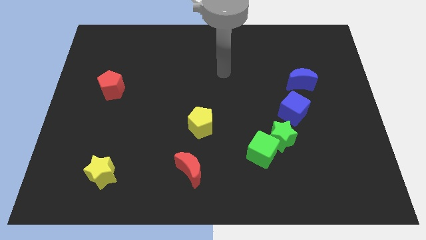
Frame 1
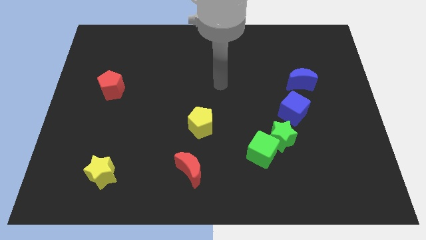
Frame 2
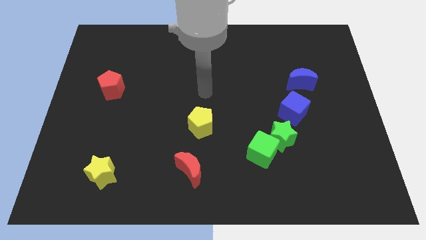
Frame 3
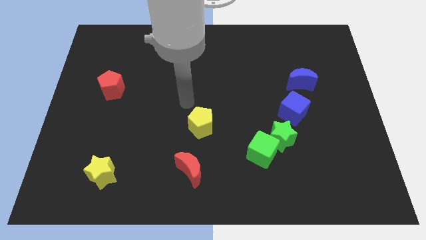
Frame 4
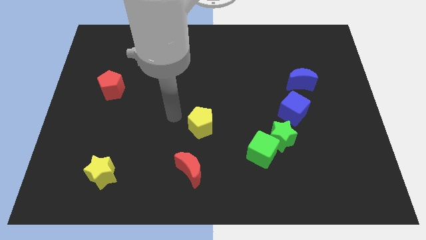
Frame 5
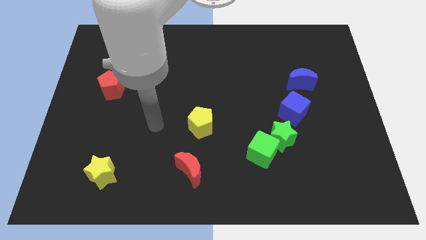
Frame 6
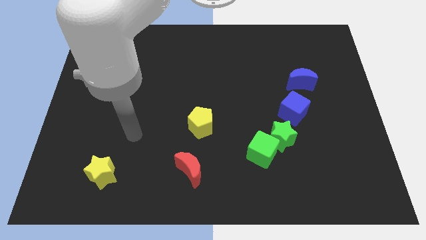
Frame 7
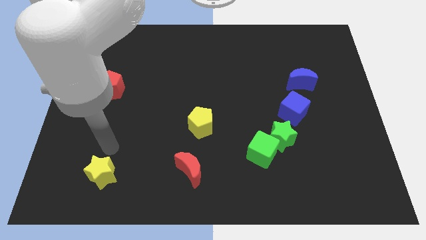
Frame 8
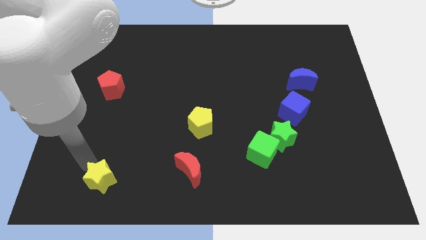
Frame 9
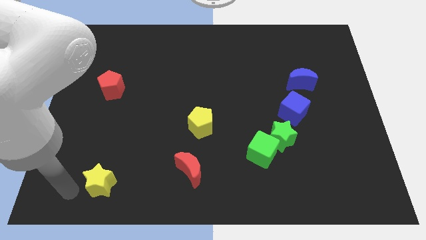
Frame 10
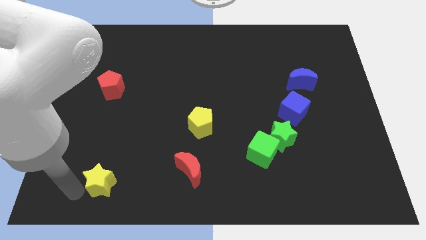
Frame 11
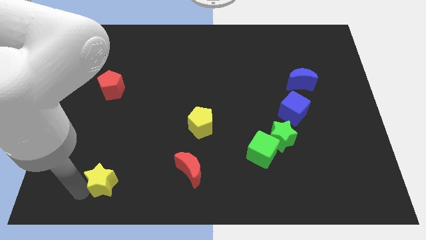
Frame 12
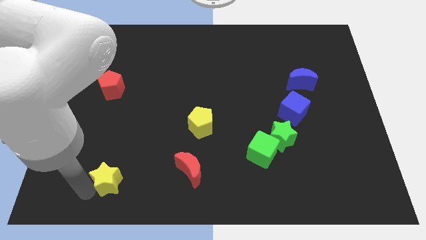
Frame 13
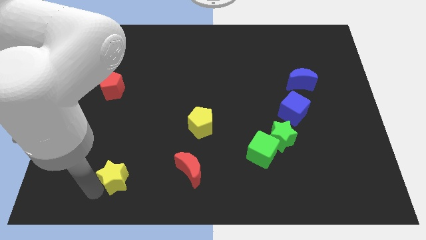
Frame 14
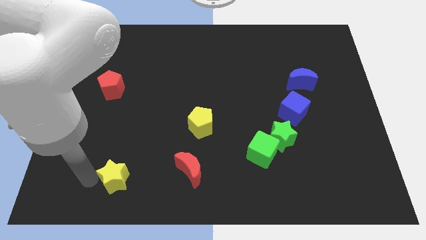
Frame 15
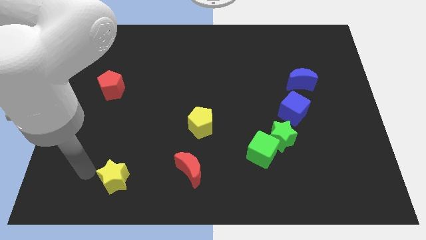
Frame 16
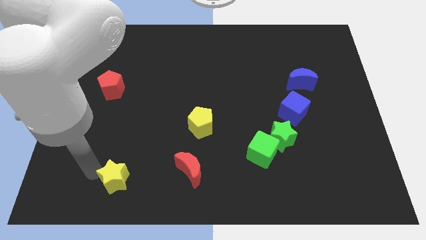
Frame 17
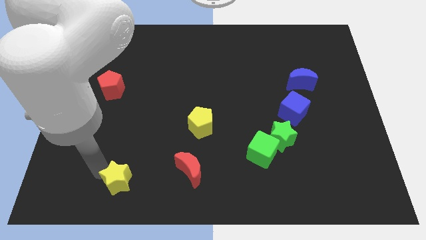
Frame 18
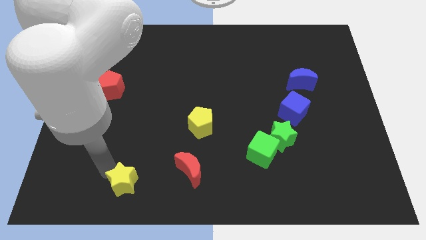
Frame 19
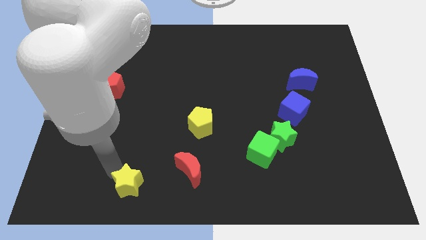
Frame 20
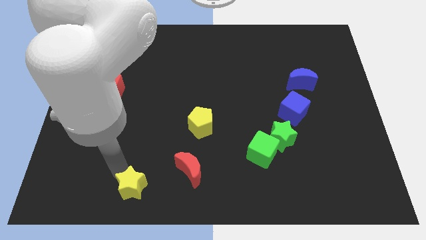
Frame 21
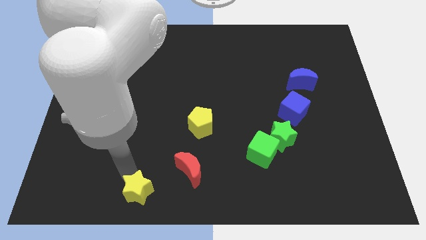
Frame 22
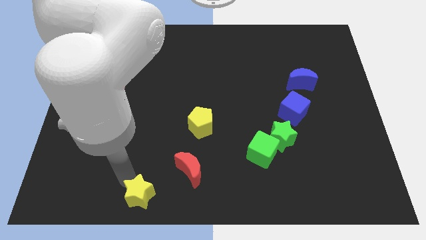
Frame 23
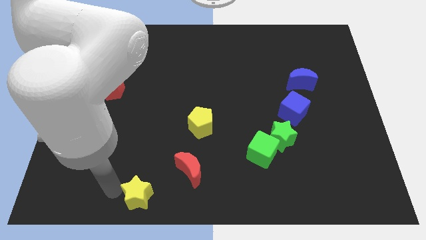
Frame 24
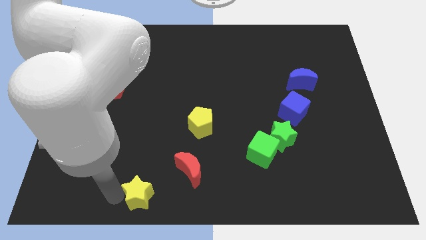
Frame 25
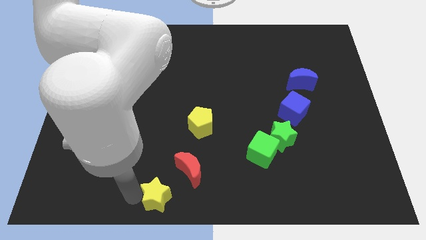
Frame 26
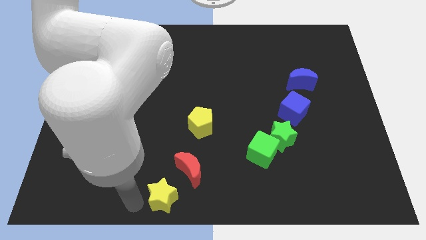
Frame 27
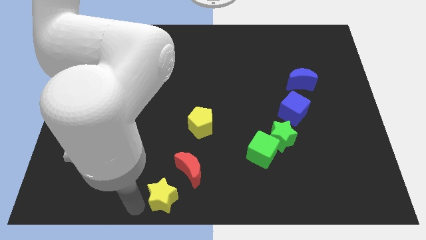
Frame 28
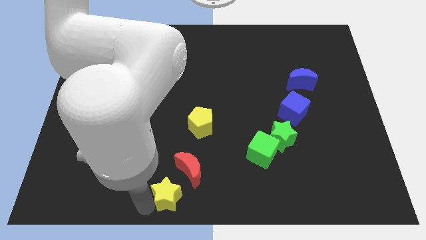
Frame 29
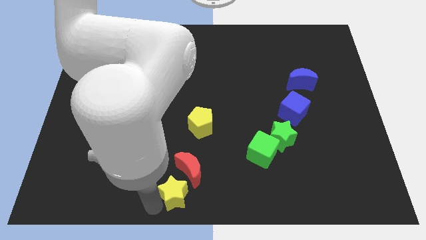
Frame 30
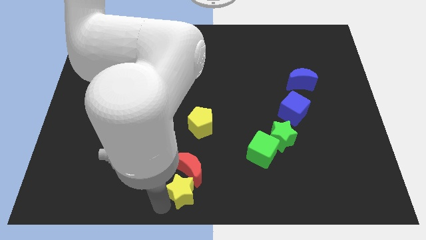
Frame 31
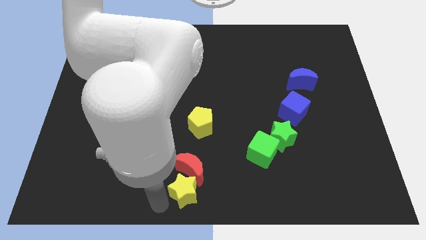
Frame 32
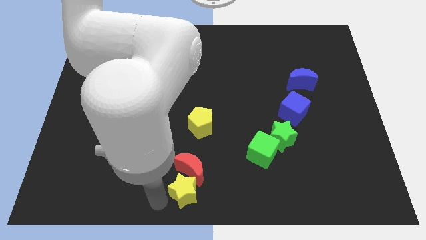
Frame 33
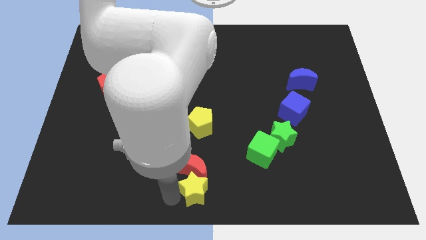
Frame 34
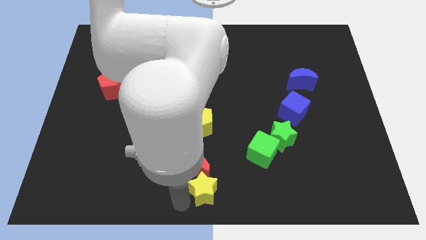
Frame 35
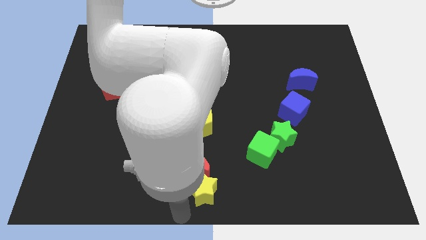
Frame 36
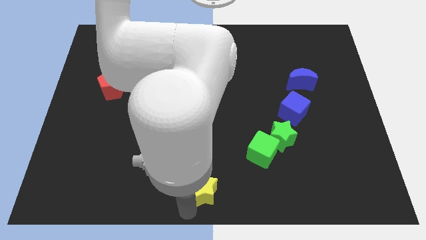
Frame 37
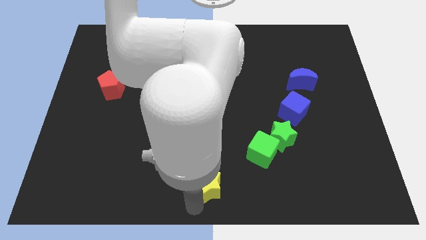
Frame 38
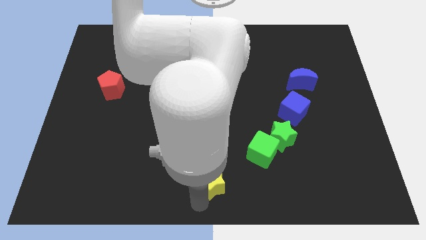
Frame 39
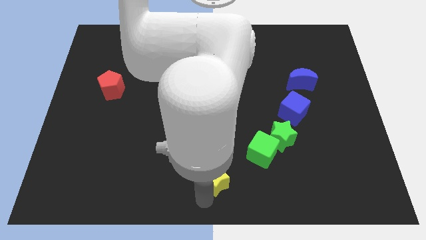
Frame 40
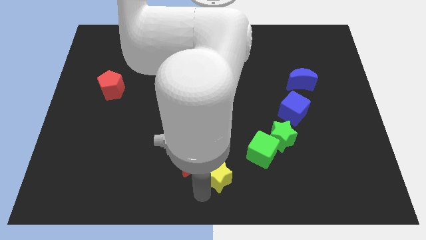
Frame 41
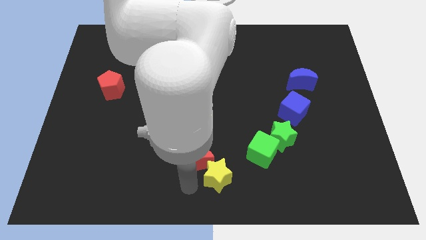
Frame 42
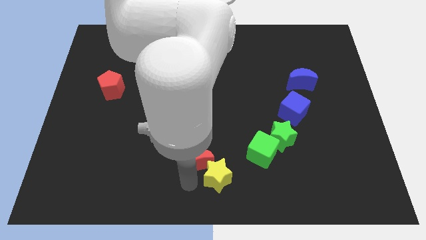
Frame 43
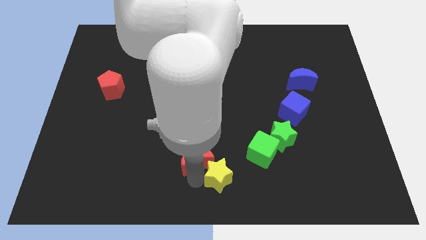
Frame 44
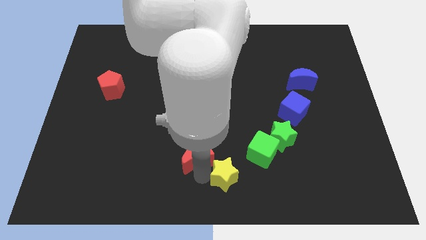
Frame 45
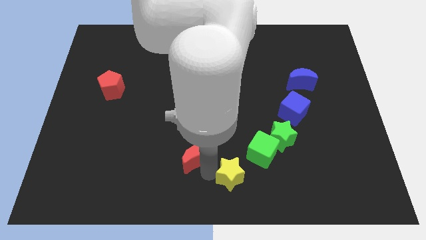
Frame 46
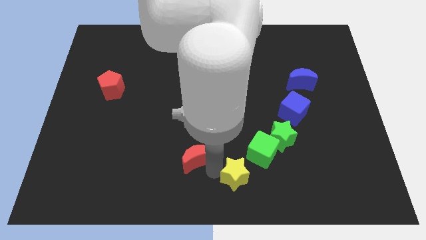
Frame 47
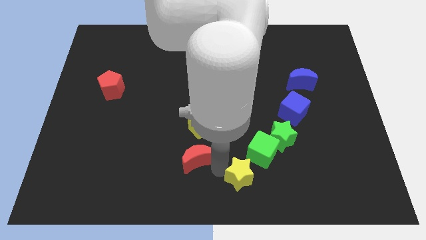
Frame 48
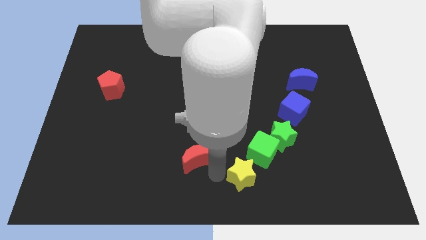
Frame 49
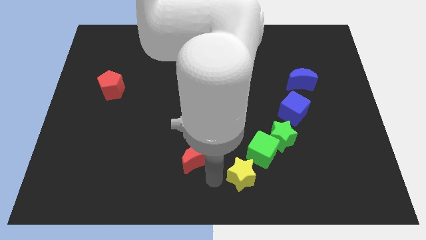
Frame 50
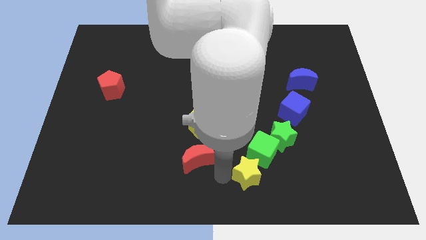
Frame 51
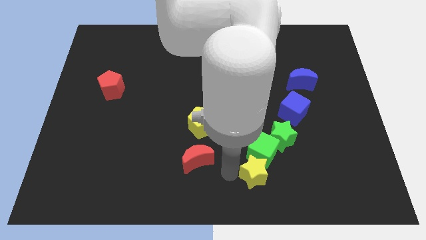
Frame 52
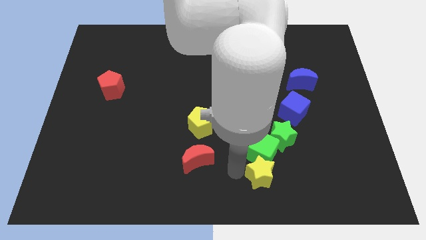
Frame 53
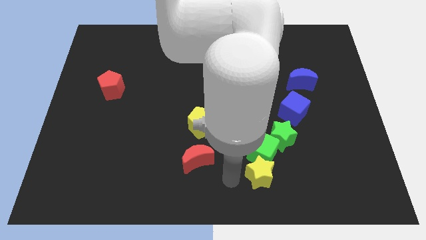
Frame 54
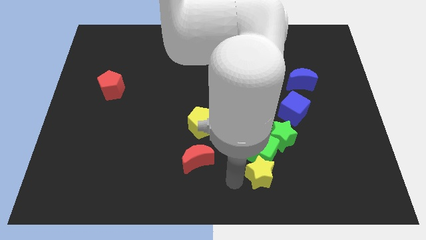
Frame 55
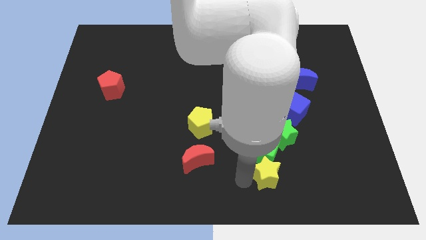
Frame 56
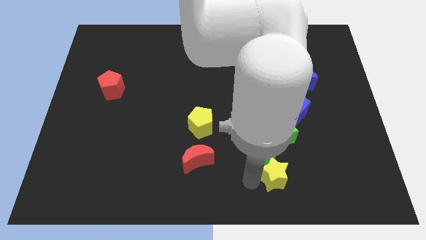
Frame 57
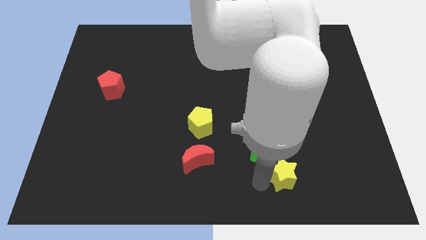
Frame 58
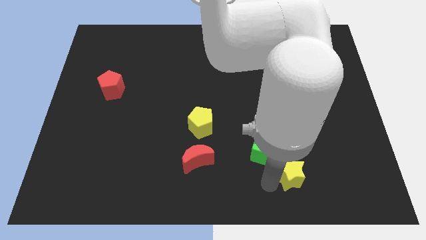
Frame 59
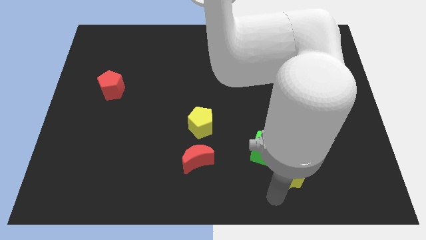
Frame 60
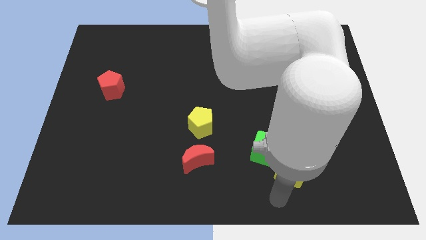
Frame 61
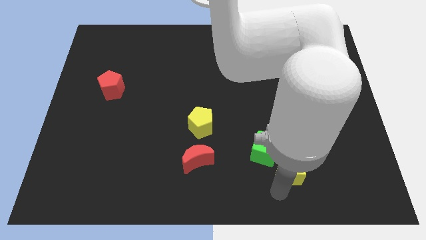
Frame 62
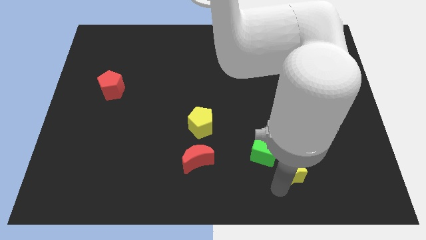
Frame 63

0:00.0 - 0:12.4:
put the yellow star below the blue cube

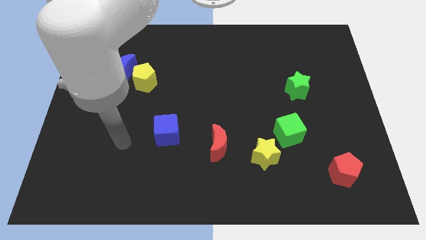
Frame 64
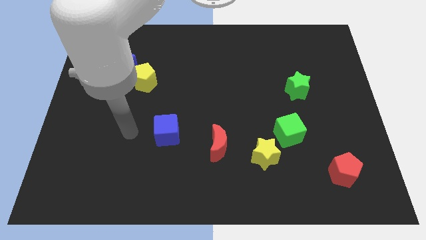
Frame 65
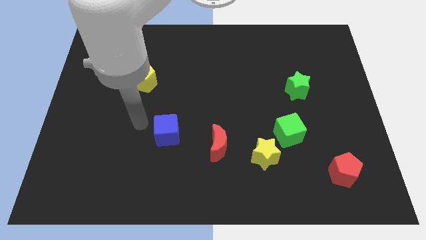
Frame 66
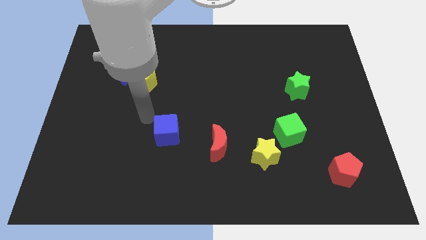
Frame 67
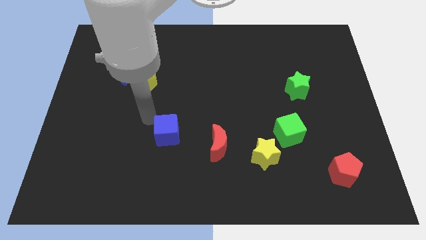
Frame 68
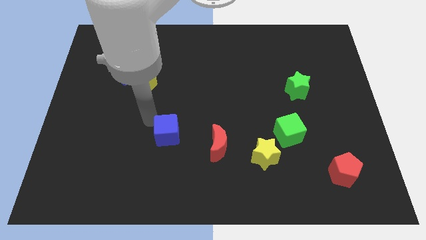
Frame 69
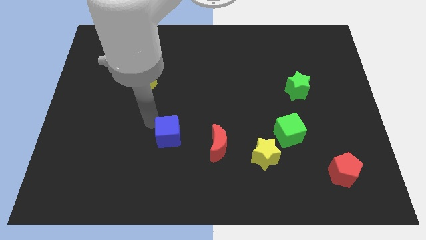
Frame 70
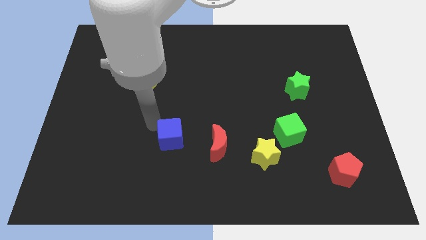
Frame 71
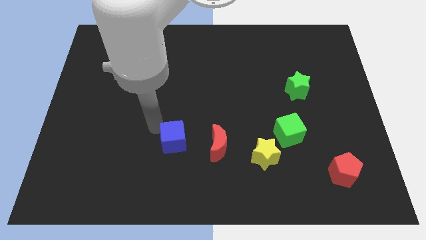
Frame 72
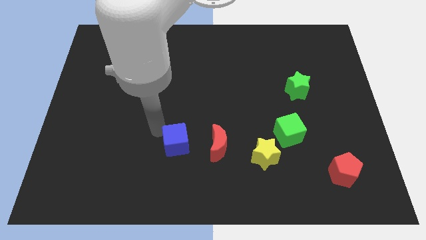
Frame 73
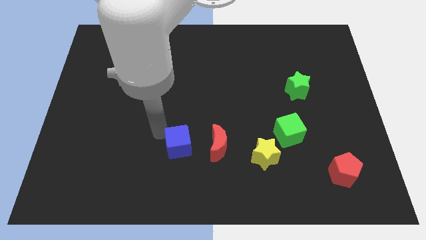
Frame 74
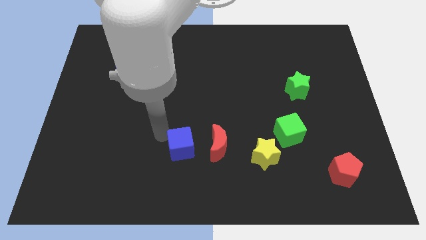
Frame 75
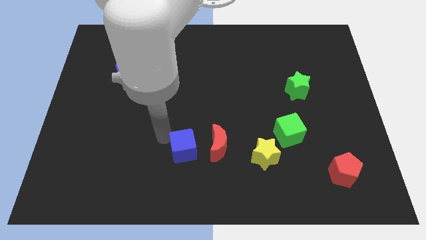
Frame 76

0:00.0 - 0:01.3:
slide the blue cube to the bottom left of the red moon
